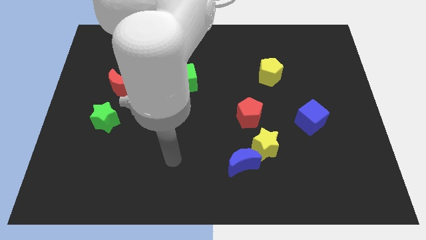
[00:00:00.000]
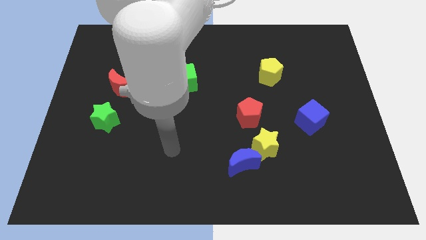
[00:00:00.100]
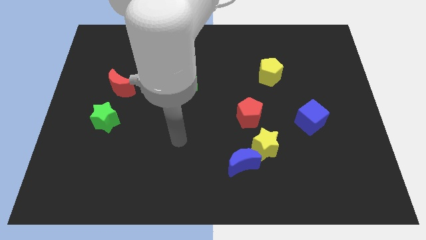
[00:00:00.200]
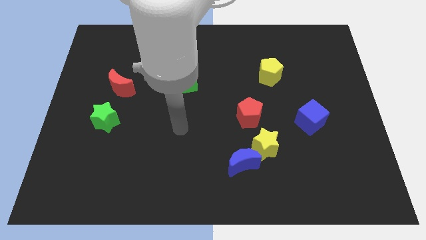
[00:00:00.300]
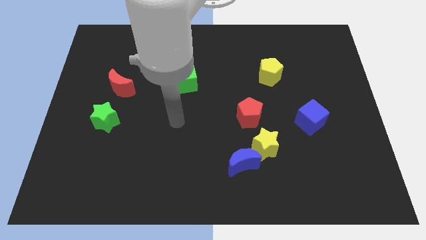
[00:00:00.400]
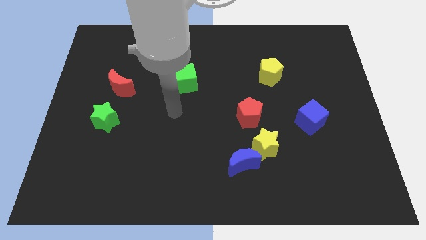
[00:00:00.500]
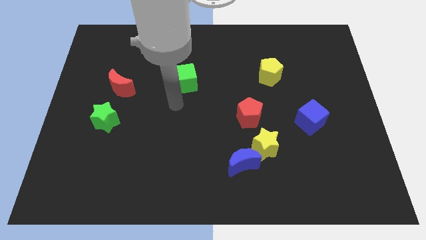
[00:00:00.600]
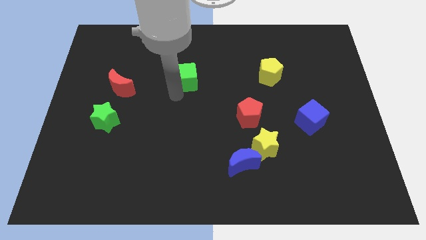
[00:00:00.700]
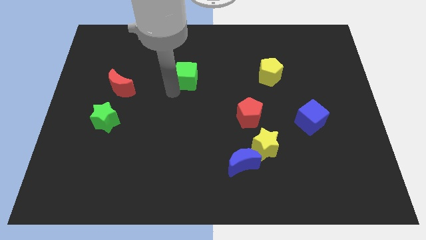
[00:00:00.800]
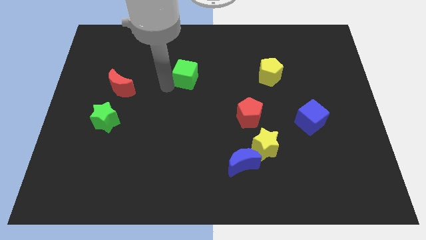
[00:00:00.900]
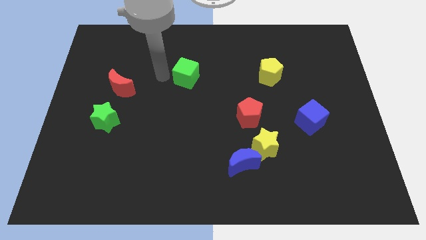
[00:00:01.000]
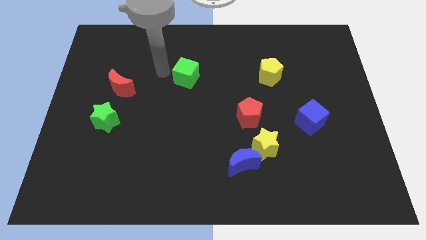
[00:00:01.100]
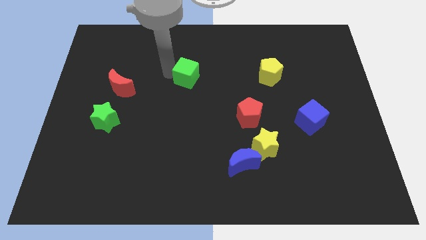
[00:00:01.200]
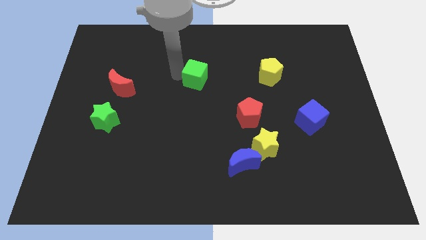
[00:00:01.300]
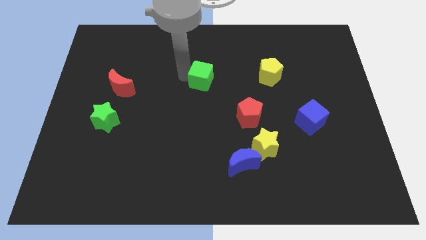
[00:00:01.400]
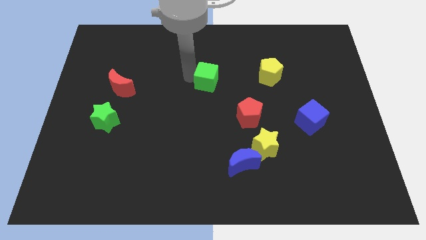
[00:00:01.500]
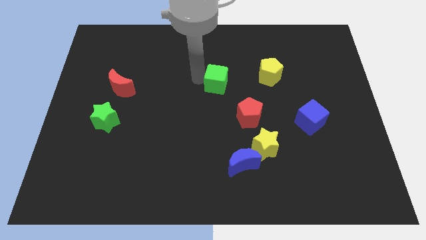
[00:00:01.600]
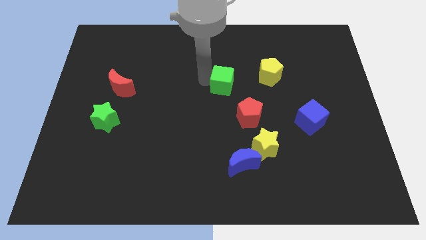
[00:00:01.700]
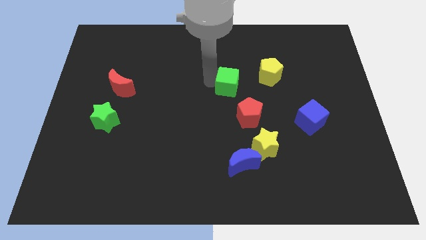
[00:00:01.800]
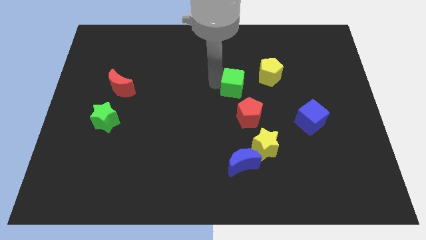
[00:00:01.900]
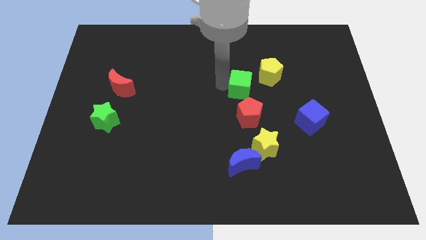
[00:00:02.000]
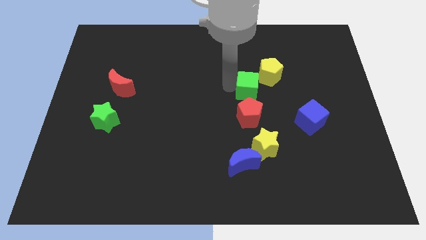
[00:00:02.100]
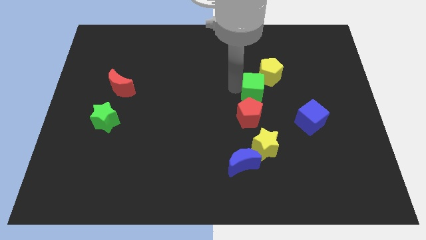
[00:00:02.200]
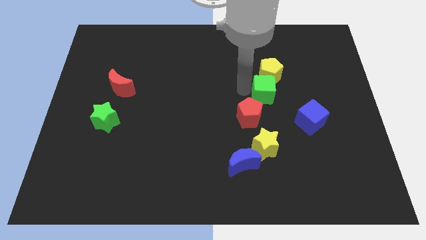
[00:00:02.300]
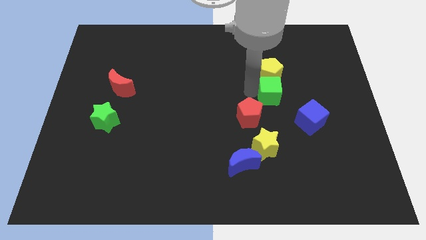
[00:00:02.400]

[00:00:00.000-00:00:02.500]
push the green cube right

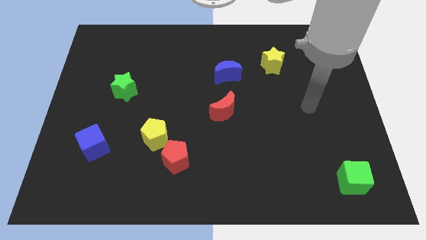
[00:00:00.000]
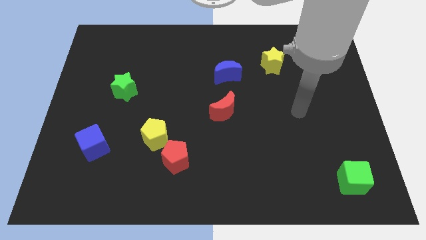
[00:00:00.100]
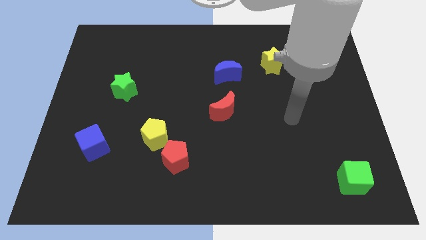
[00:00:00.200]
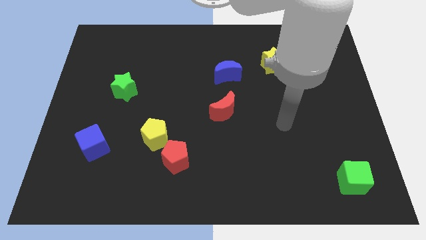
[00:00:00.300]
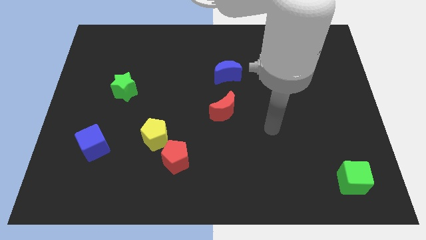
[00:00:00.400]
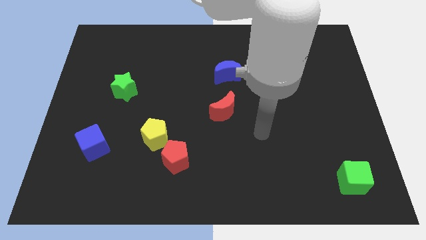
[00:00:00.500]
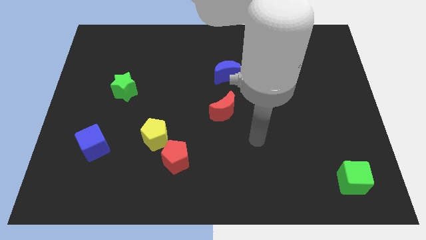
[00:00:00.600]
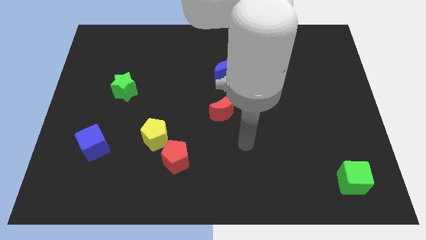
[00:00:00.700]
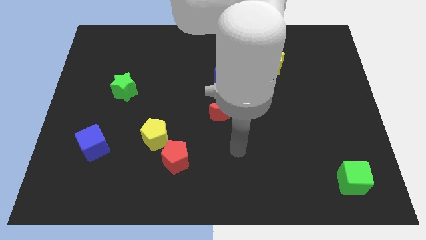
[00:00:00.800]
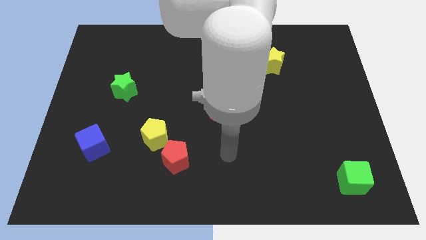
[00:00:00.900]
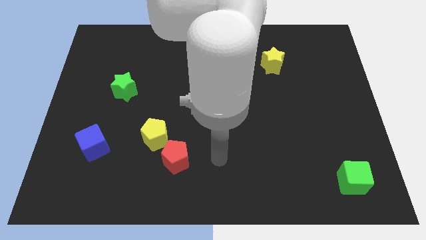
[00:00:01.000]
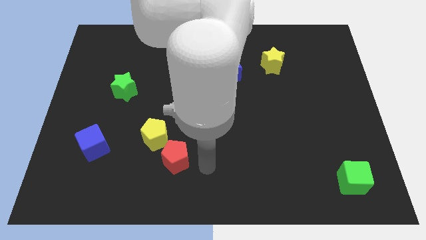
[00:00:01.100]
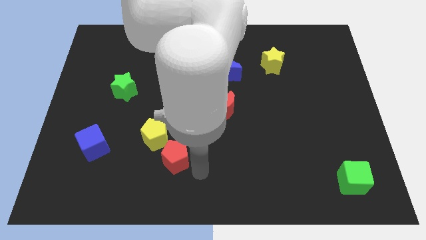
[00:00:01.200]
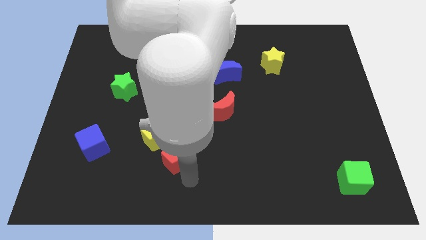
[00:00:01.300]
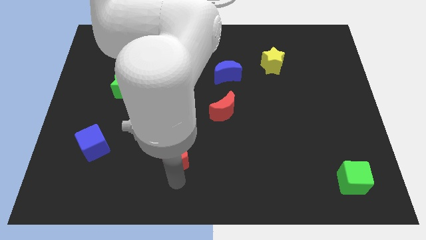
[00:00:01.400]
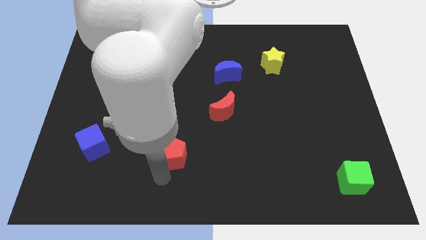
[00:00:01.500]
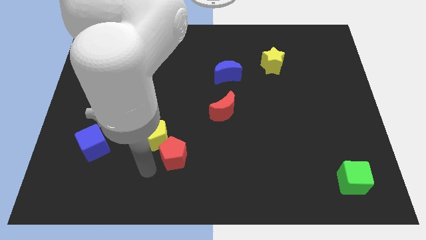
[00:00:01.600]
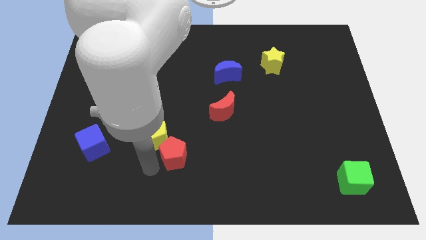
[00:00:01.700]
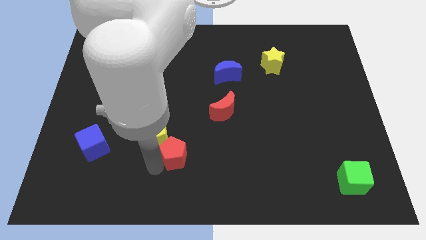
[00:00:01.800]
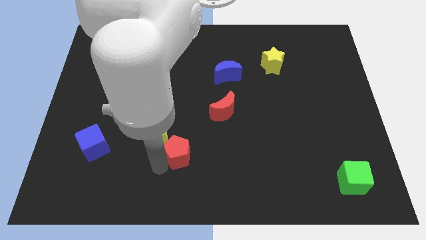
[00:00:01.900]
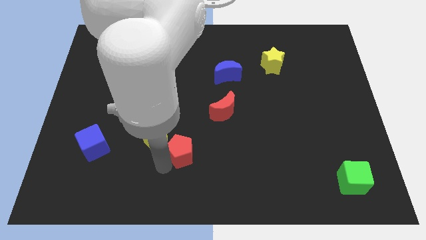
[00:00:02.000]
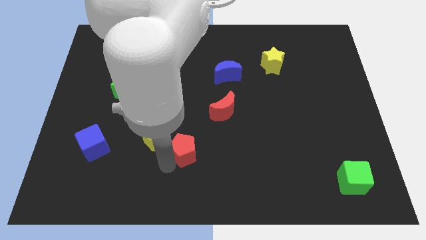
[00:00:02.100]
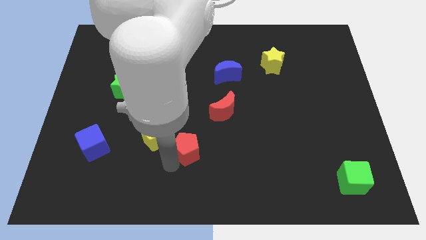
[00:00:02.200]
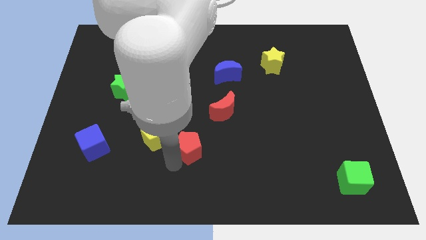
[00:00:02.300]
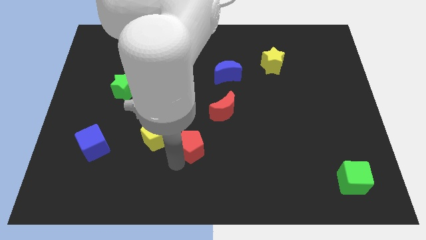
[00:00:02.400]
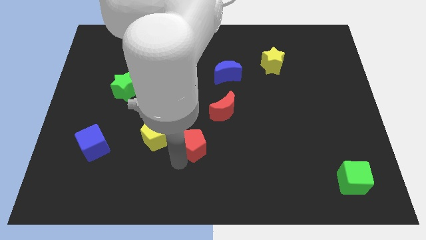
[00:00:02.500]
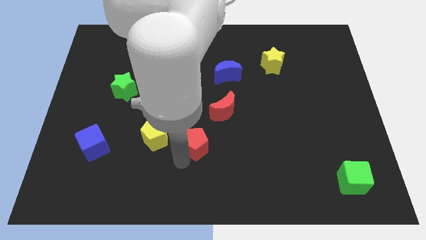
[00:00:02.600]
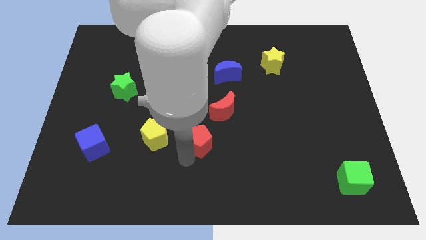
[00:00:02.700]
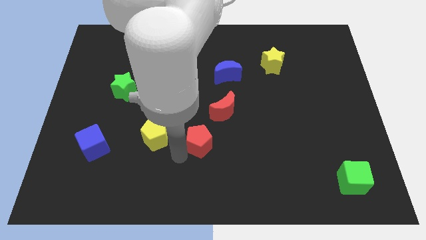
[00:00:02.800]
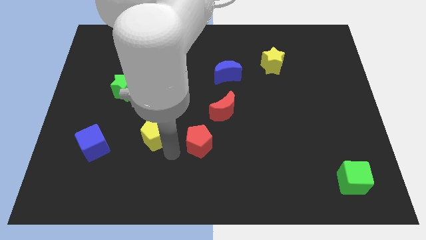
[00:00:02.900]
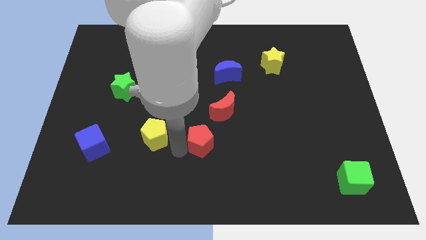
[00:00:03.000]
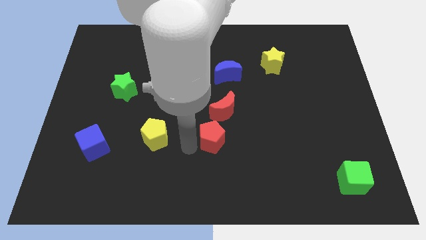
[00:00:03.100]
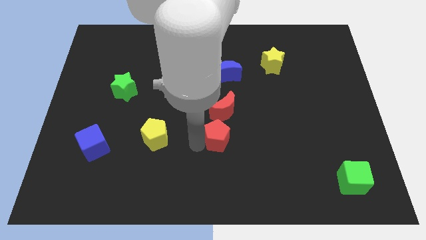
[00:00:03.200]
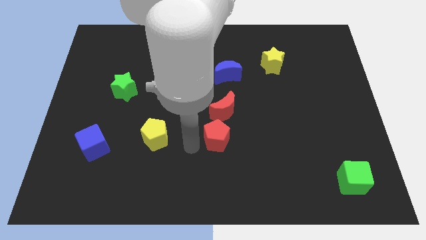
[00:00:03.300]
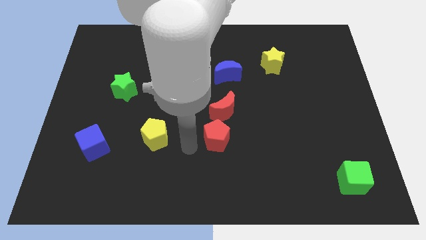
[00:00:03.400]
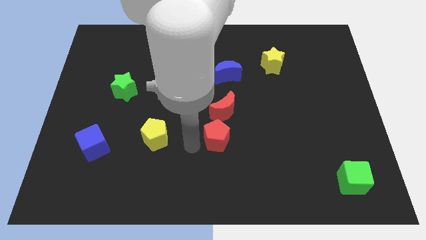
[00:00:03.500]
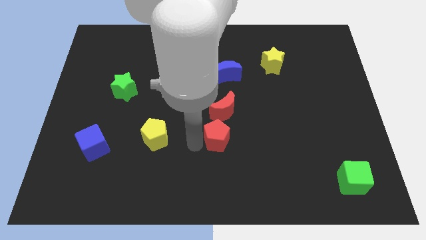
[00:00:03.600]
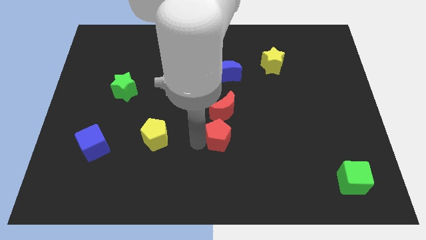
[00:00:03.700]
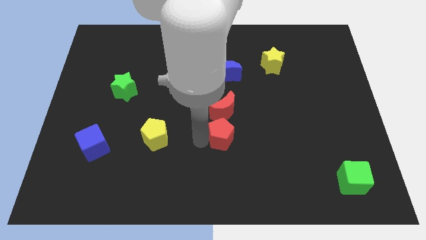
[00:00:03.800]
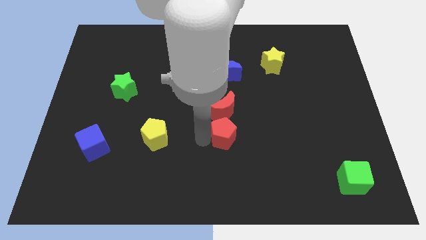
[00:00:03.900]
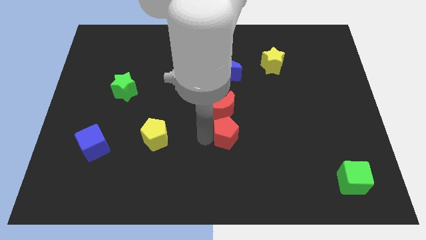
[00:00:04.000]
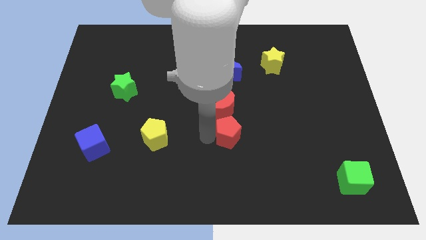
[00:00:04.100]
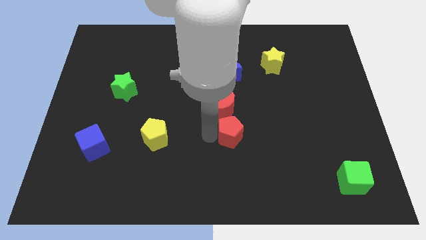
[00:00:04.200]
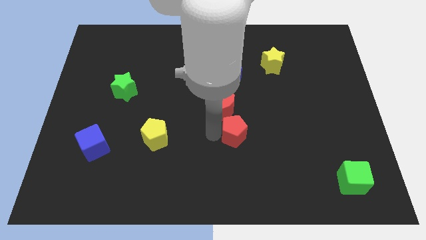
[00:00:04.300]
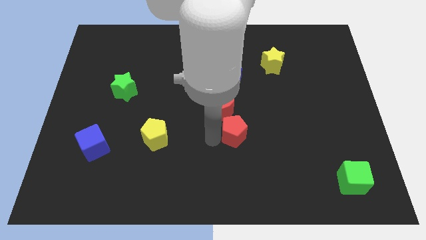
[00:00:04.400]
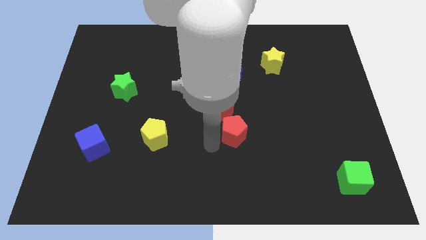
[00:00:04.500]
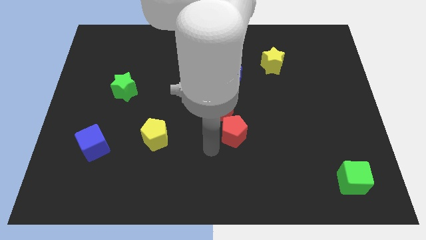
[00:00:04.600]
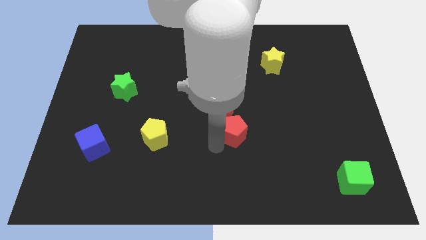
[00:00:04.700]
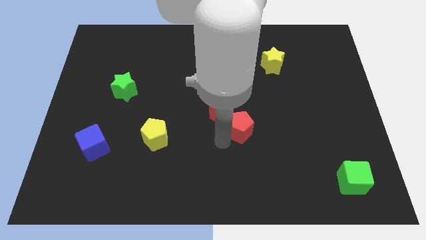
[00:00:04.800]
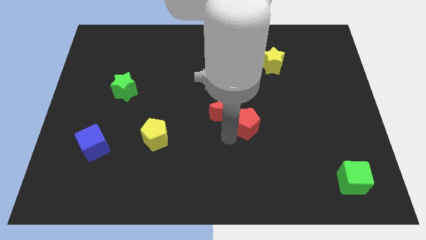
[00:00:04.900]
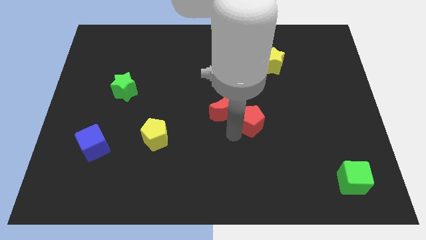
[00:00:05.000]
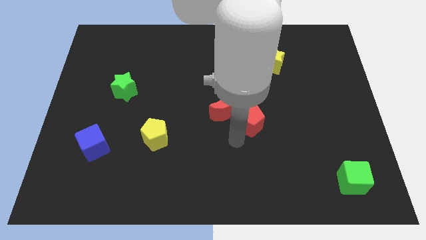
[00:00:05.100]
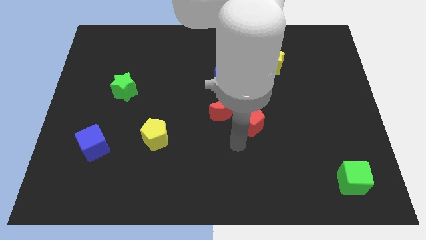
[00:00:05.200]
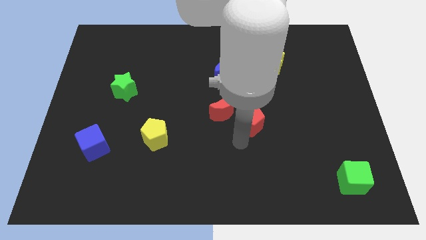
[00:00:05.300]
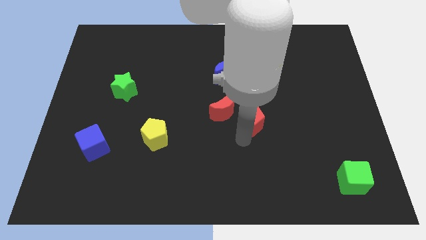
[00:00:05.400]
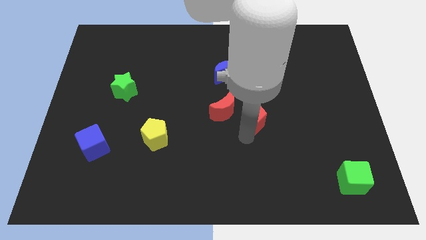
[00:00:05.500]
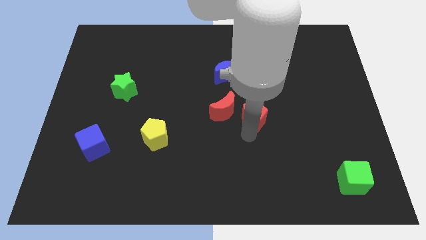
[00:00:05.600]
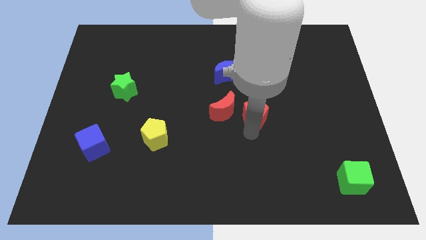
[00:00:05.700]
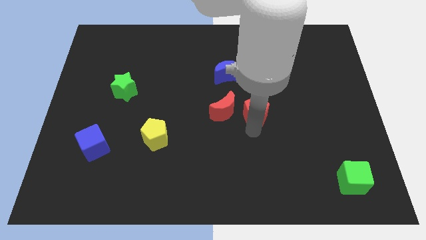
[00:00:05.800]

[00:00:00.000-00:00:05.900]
slide the red pentagon upwards and to the right diagonally
